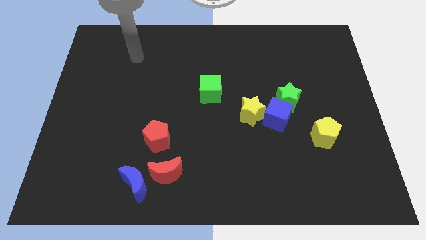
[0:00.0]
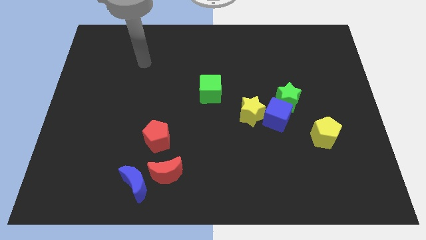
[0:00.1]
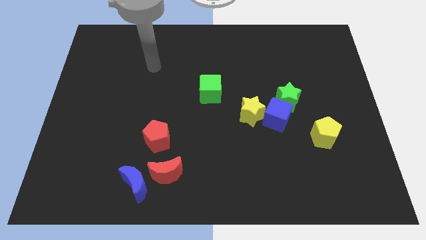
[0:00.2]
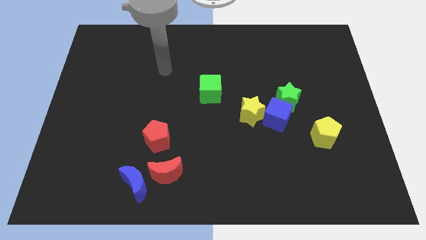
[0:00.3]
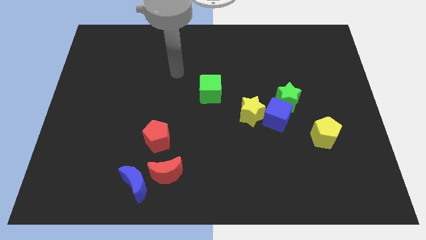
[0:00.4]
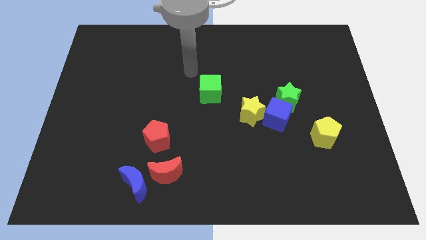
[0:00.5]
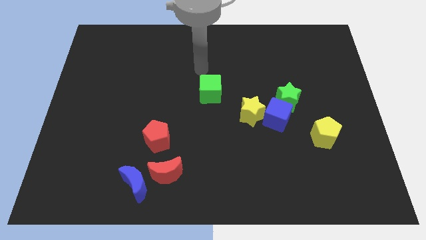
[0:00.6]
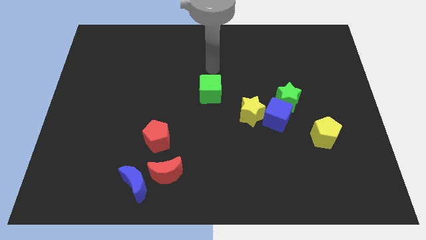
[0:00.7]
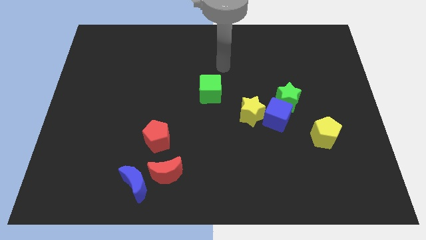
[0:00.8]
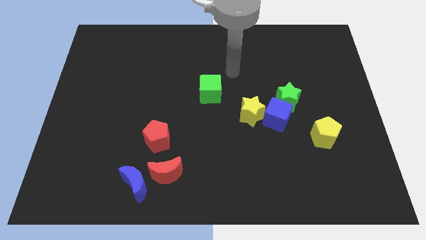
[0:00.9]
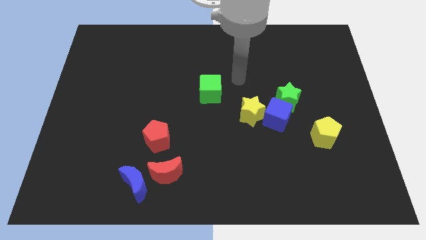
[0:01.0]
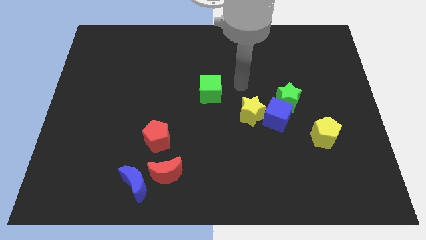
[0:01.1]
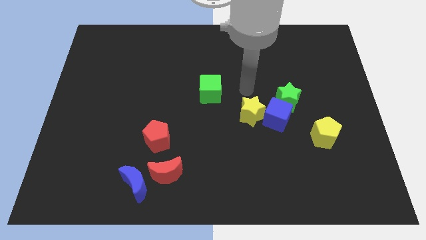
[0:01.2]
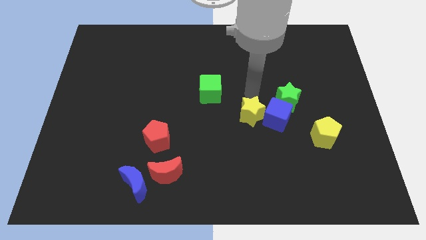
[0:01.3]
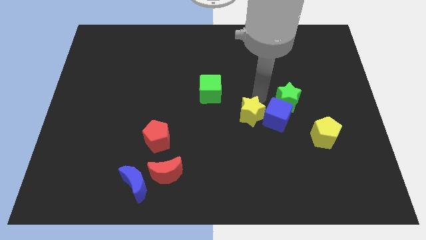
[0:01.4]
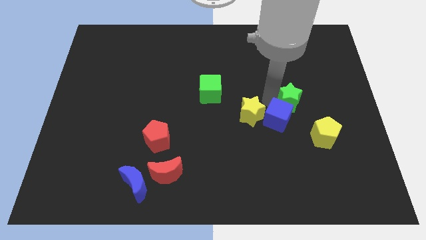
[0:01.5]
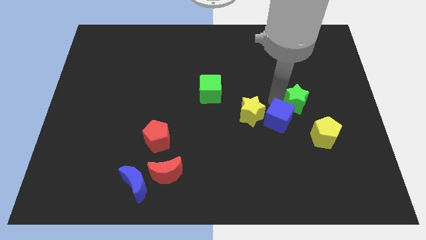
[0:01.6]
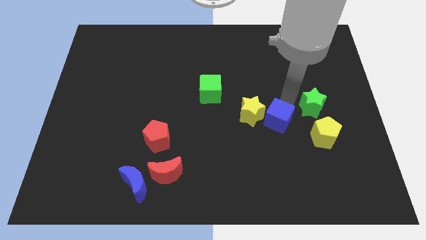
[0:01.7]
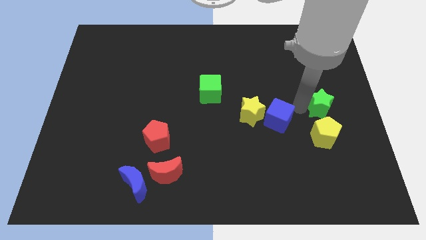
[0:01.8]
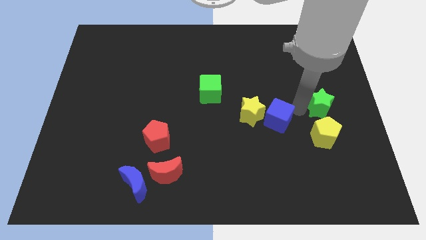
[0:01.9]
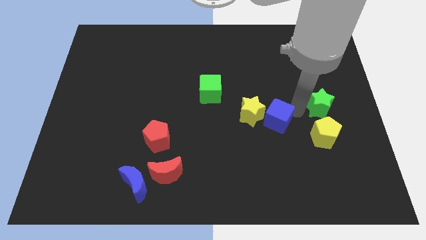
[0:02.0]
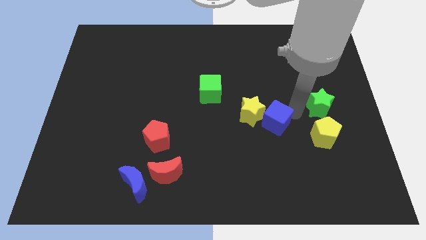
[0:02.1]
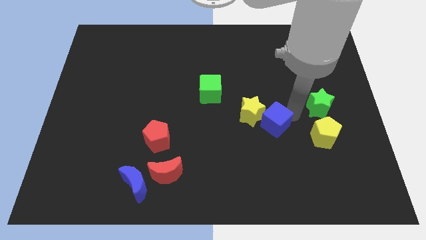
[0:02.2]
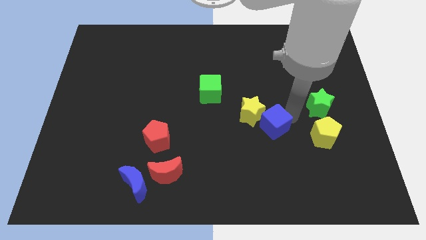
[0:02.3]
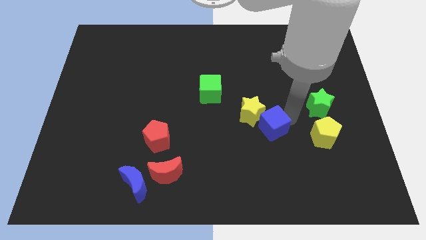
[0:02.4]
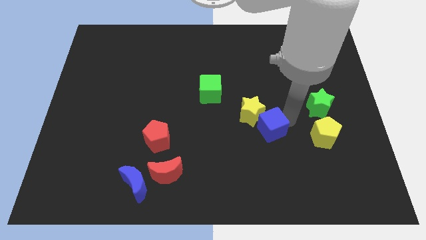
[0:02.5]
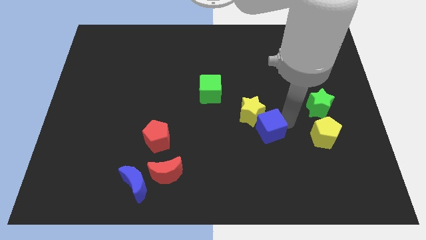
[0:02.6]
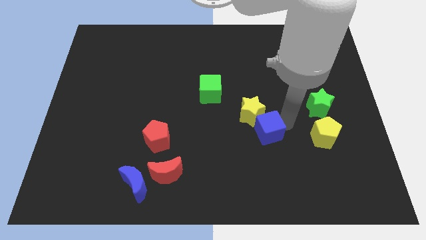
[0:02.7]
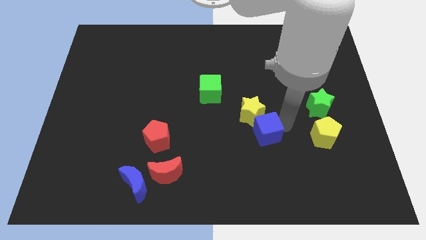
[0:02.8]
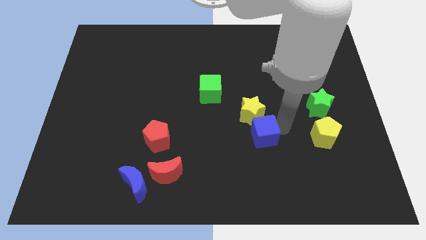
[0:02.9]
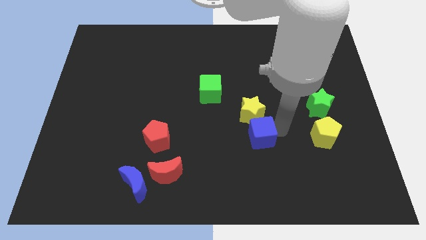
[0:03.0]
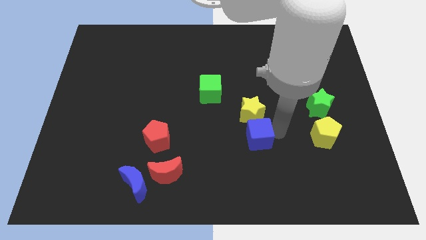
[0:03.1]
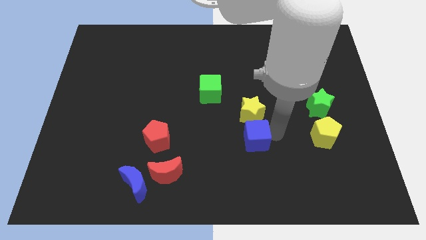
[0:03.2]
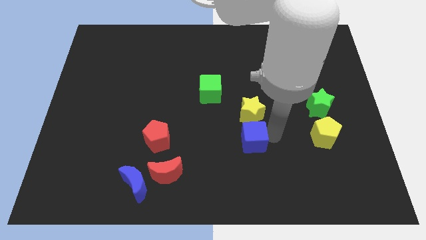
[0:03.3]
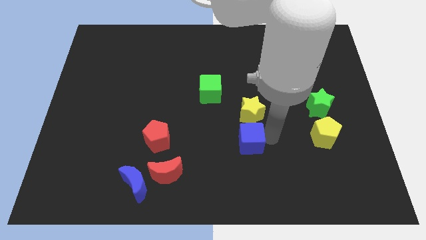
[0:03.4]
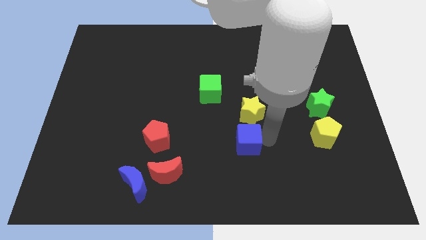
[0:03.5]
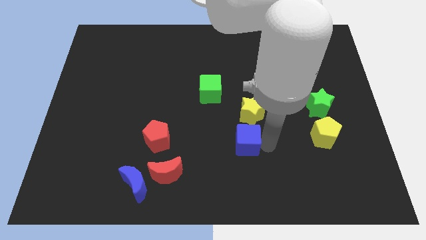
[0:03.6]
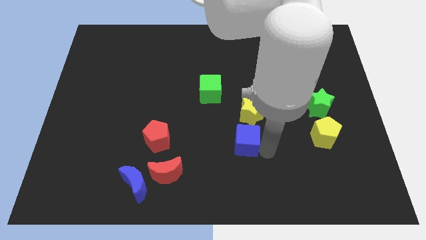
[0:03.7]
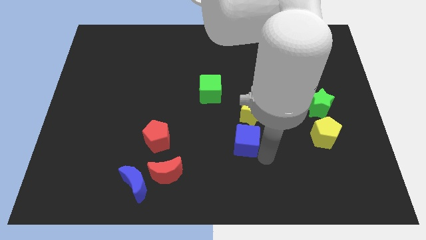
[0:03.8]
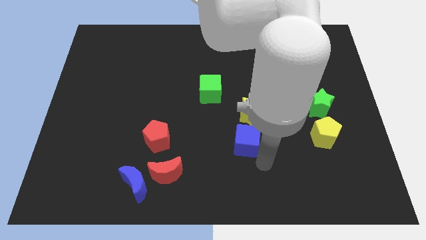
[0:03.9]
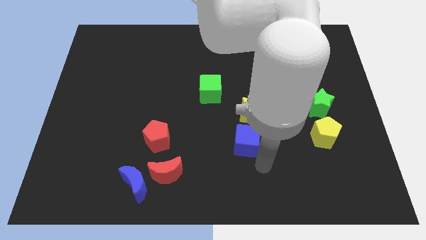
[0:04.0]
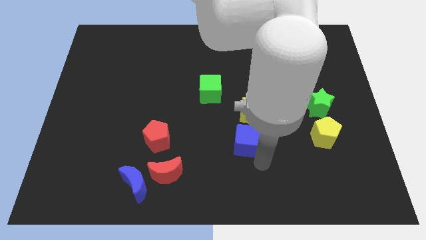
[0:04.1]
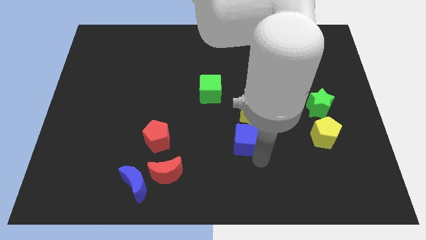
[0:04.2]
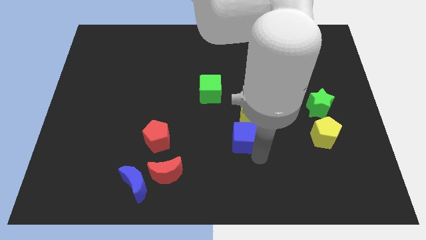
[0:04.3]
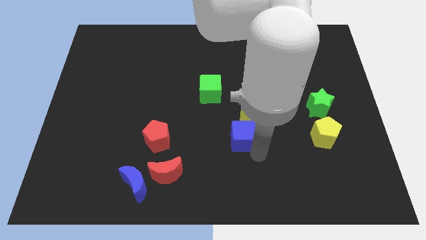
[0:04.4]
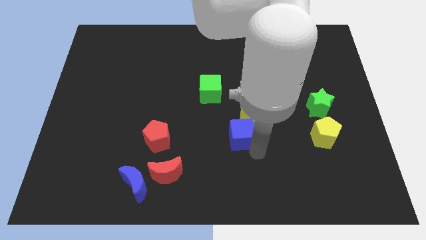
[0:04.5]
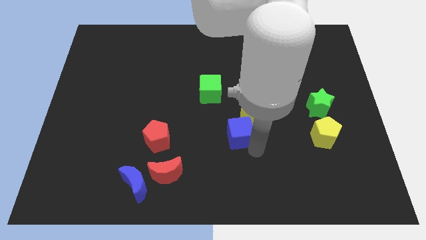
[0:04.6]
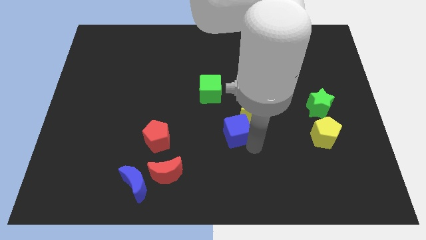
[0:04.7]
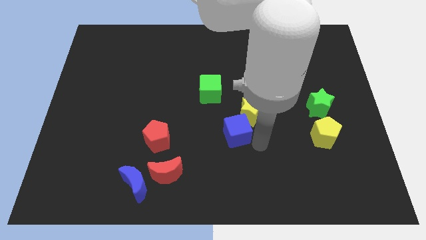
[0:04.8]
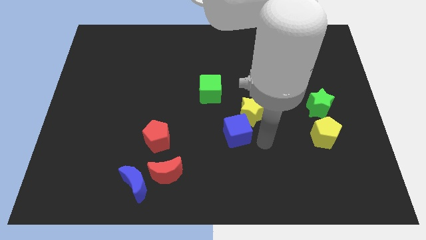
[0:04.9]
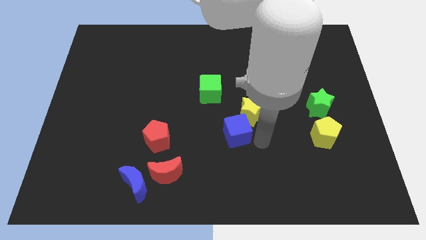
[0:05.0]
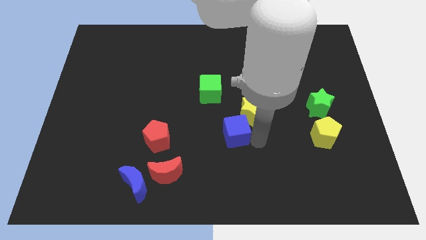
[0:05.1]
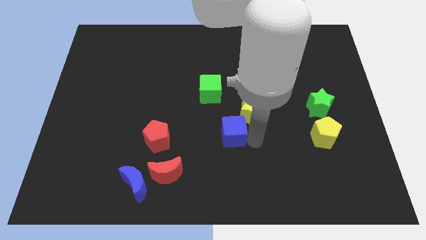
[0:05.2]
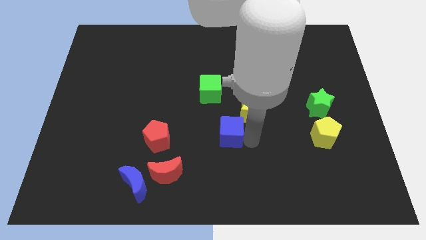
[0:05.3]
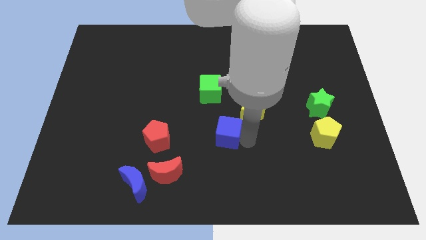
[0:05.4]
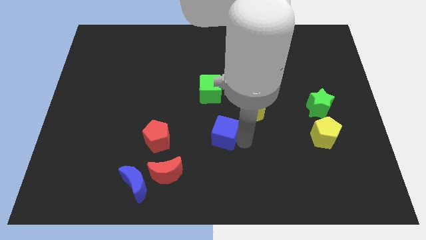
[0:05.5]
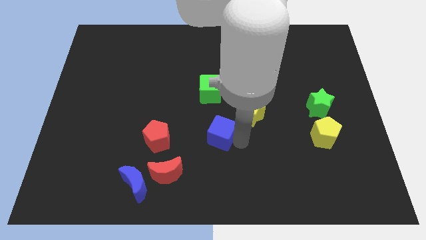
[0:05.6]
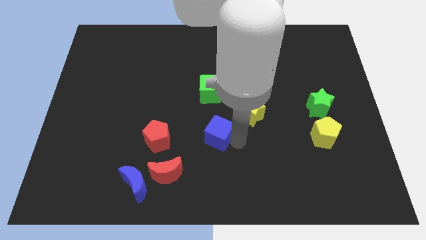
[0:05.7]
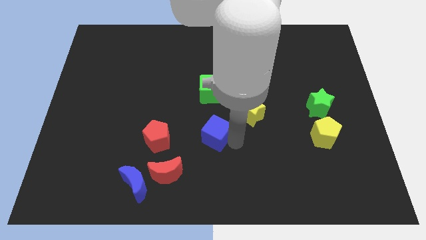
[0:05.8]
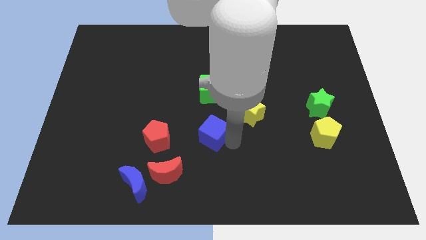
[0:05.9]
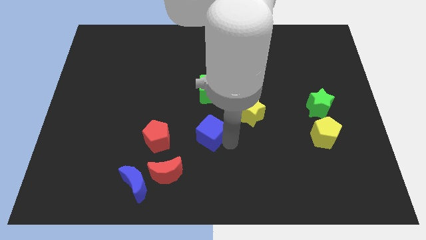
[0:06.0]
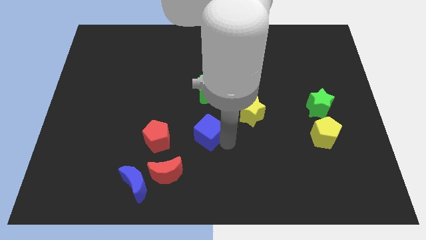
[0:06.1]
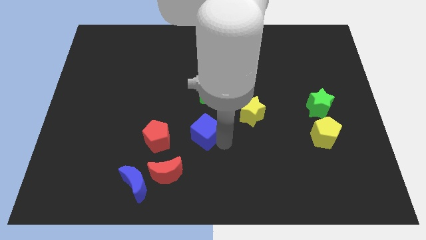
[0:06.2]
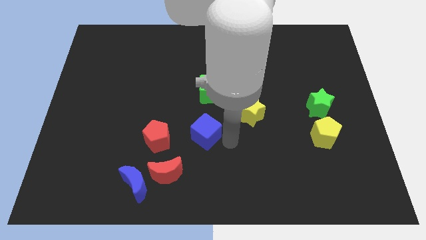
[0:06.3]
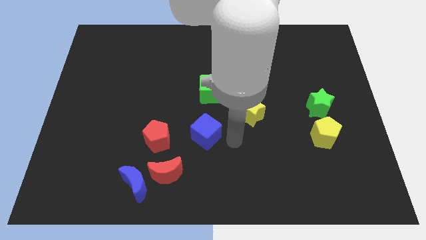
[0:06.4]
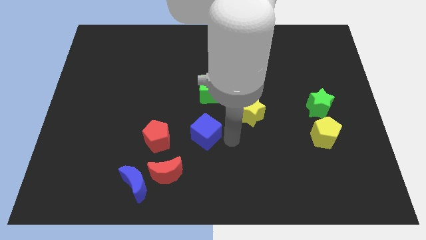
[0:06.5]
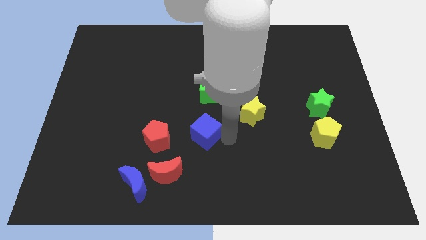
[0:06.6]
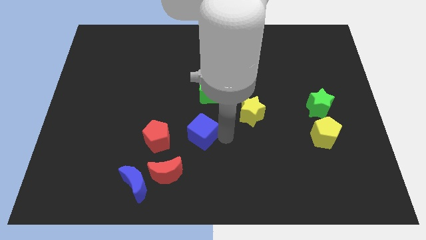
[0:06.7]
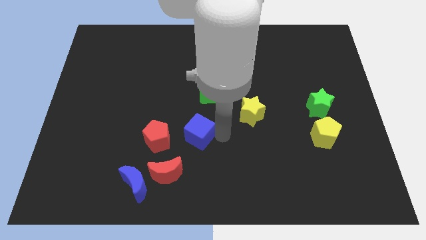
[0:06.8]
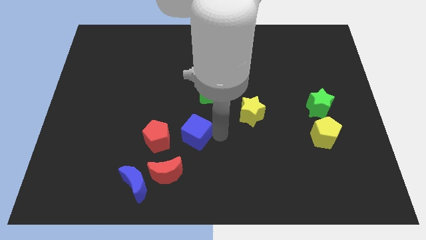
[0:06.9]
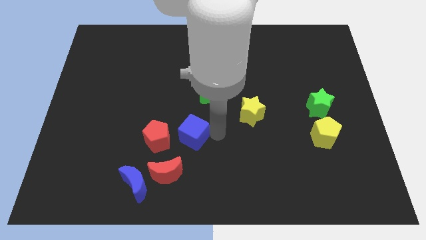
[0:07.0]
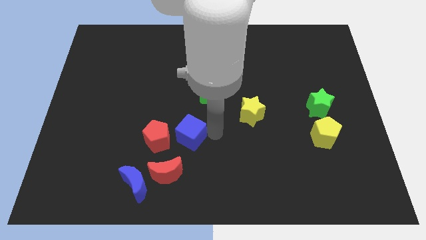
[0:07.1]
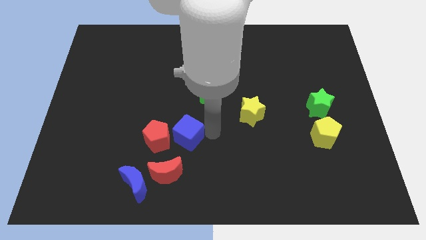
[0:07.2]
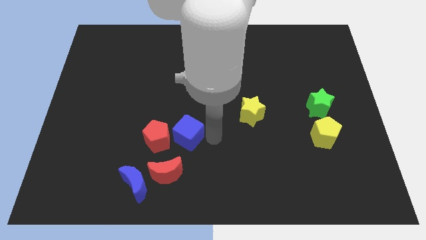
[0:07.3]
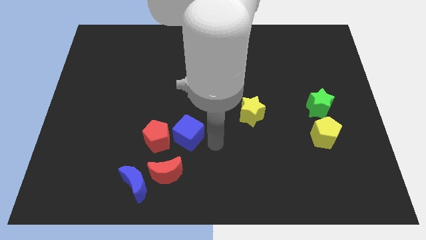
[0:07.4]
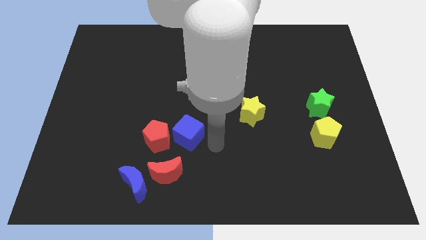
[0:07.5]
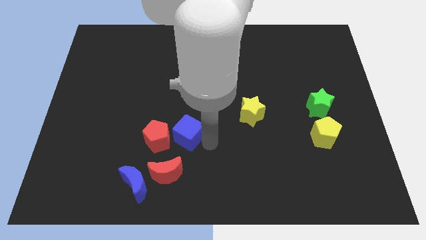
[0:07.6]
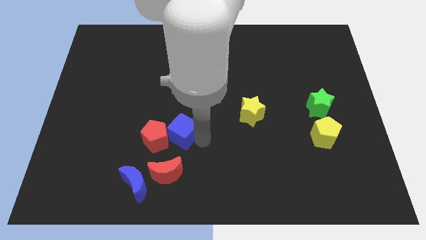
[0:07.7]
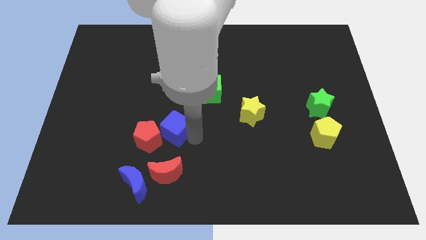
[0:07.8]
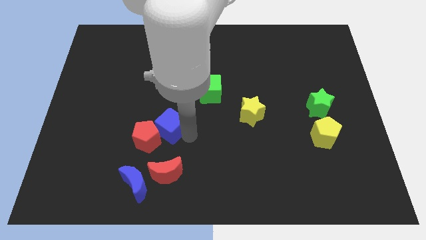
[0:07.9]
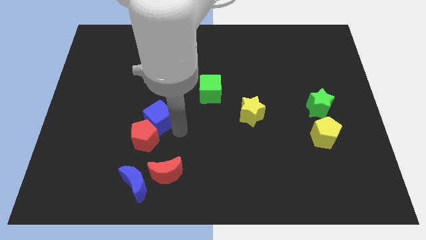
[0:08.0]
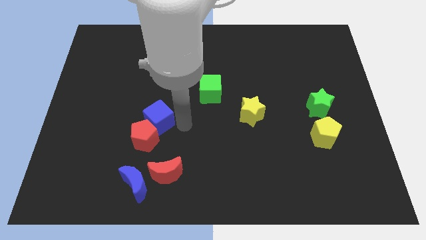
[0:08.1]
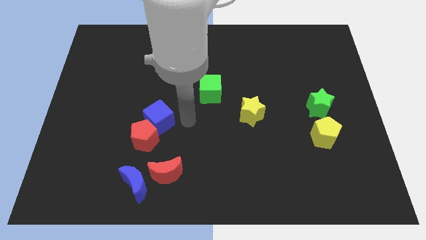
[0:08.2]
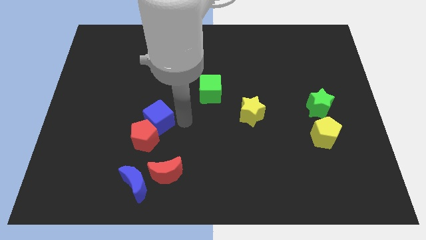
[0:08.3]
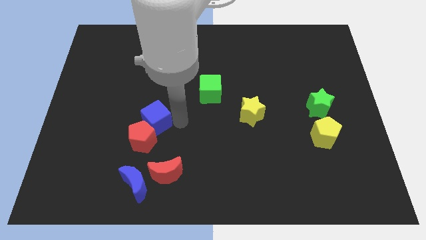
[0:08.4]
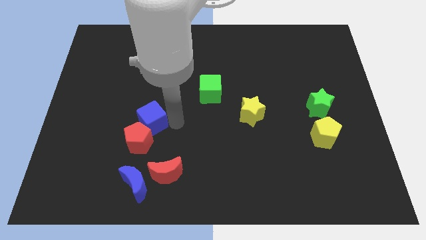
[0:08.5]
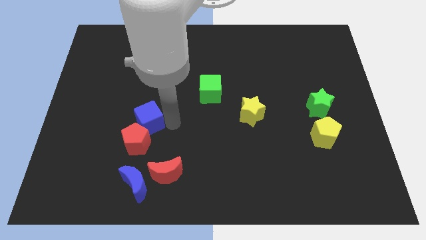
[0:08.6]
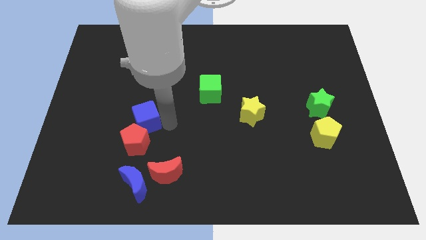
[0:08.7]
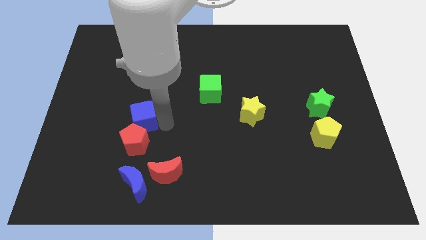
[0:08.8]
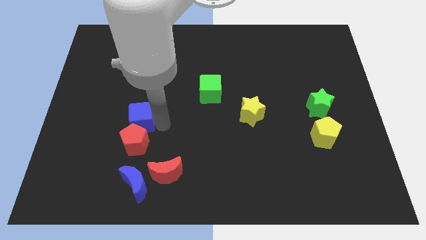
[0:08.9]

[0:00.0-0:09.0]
push the blue cube to the top left side of the red pentagon
